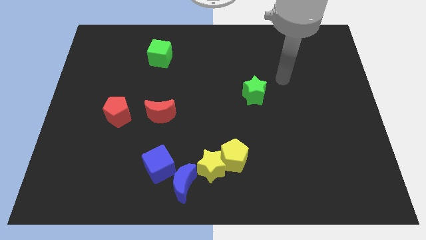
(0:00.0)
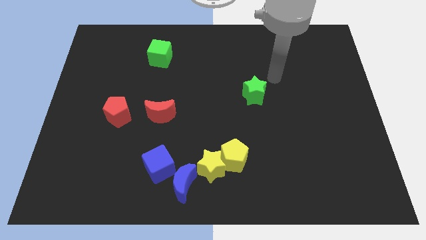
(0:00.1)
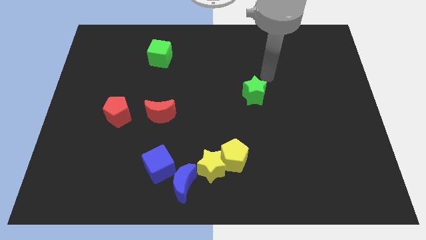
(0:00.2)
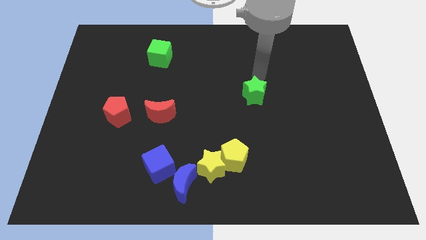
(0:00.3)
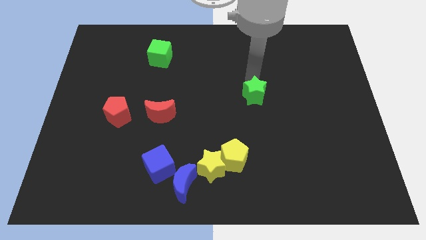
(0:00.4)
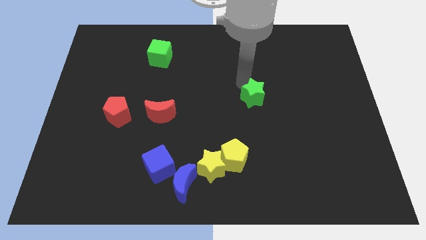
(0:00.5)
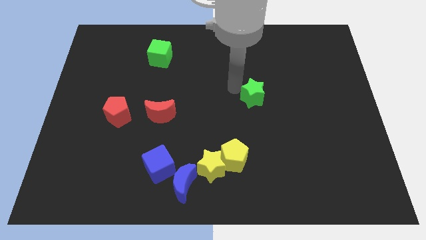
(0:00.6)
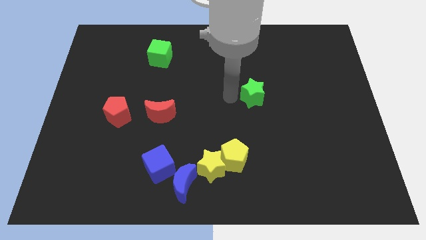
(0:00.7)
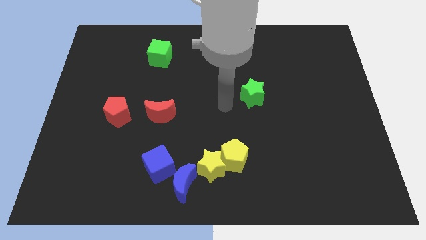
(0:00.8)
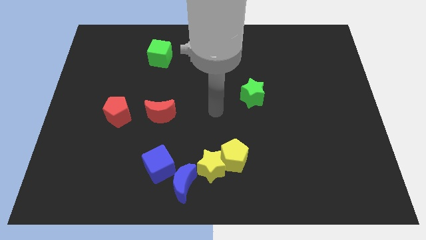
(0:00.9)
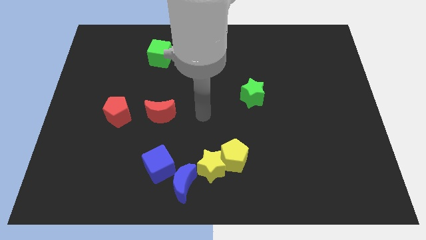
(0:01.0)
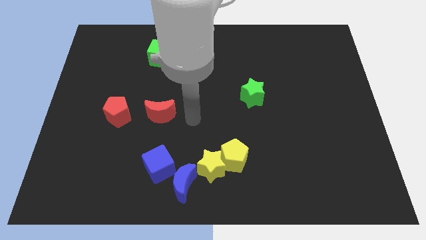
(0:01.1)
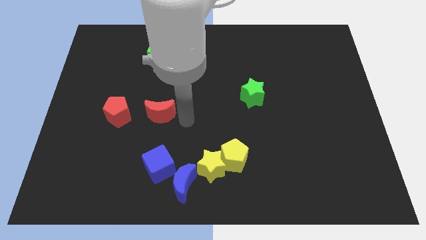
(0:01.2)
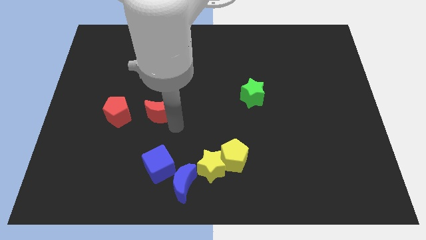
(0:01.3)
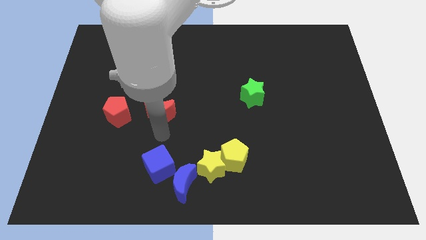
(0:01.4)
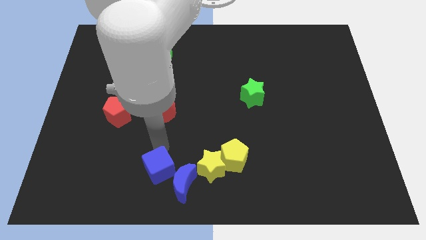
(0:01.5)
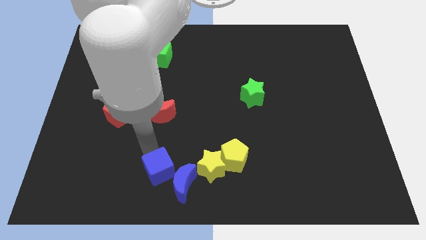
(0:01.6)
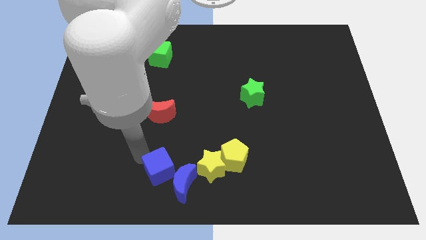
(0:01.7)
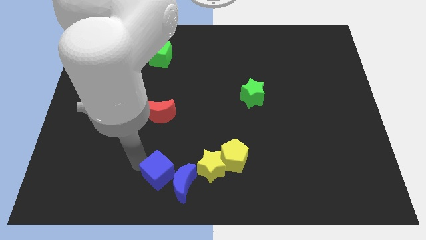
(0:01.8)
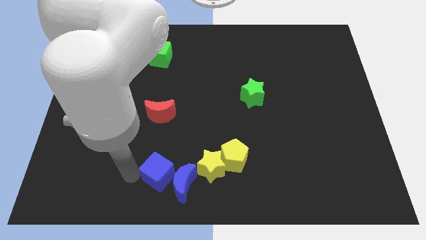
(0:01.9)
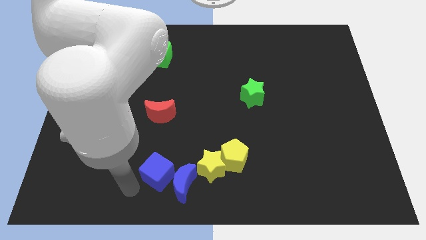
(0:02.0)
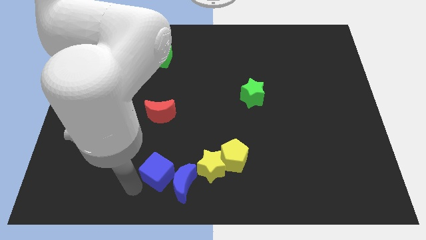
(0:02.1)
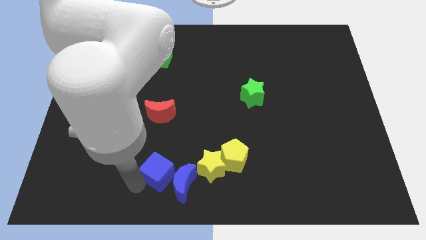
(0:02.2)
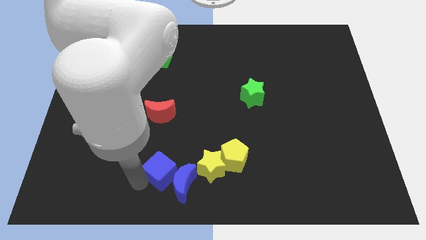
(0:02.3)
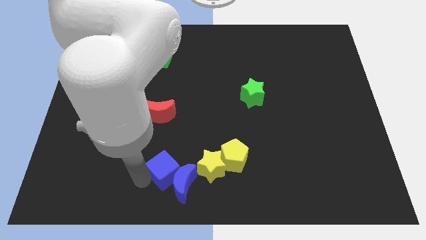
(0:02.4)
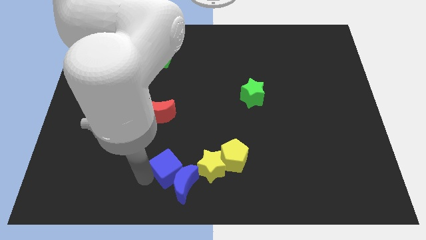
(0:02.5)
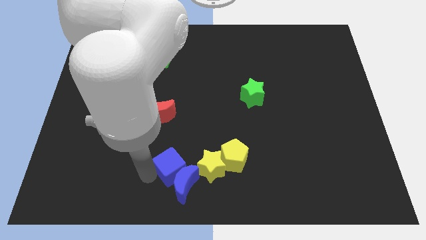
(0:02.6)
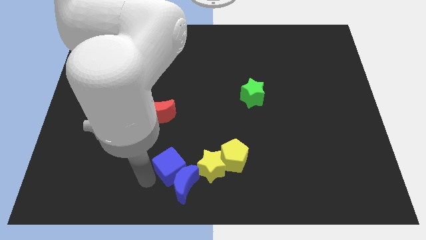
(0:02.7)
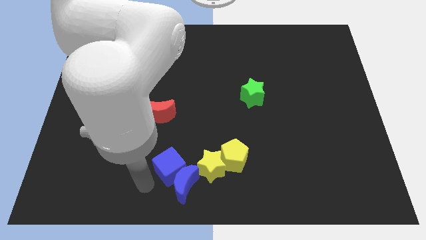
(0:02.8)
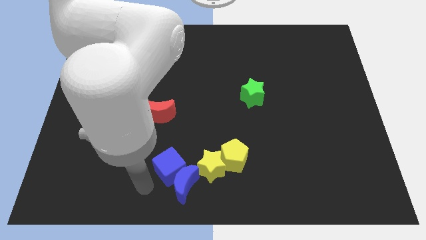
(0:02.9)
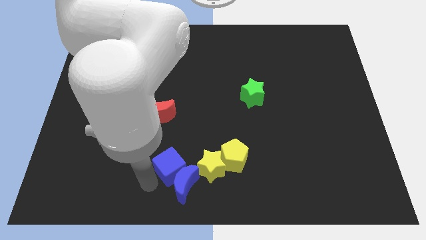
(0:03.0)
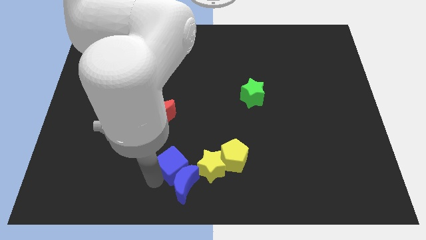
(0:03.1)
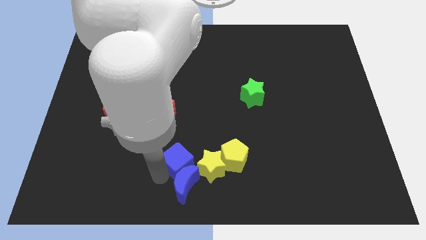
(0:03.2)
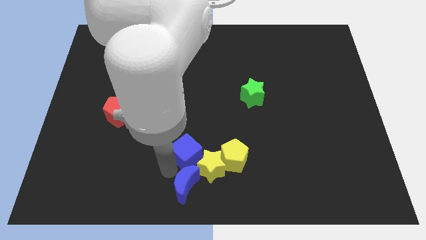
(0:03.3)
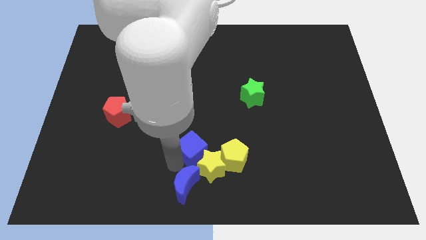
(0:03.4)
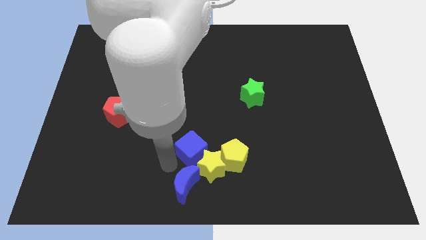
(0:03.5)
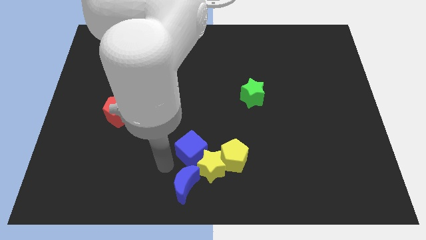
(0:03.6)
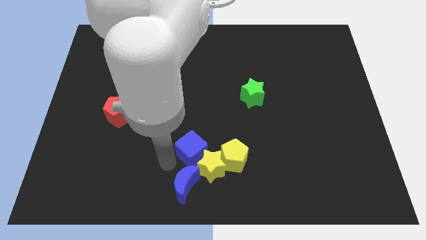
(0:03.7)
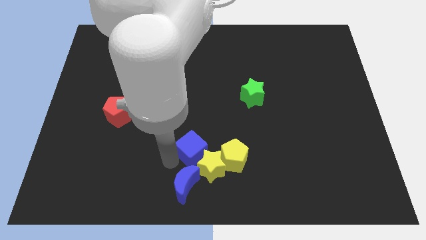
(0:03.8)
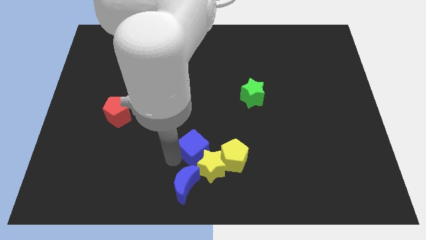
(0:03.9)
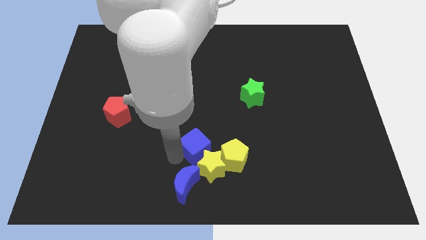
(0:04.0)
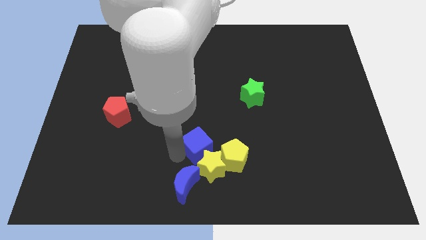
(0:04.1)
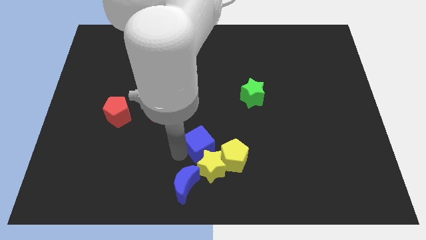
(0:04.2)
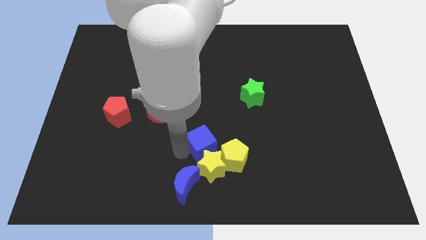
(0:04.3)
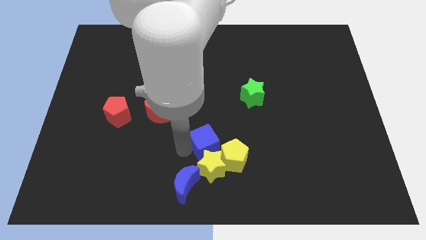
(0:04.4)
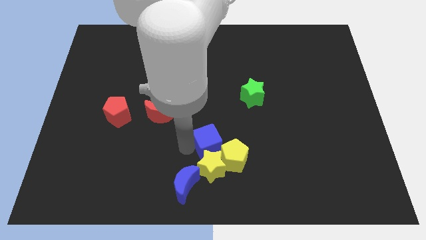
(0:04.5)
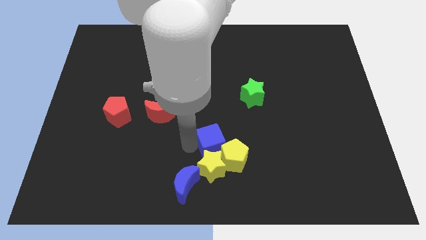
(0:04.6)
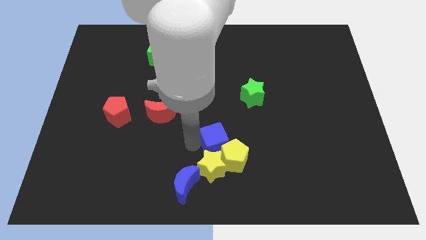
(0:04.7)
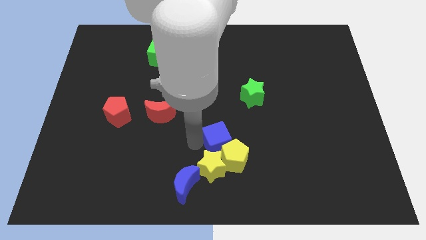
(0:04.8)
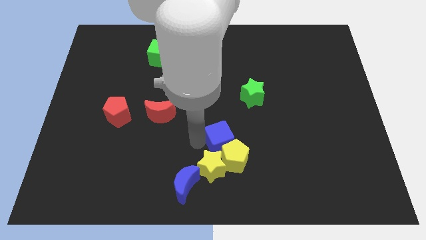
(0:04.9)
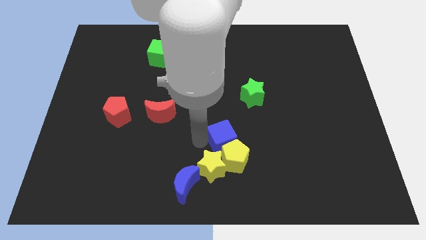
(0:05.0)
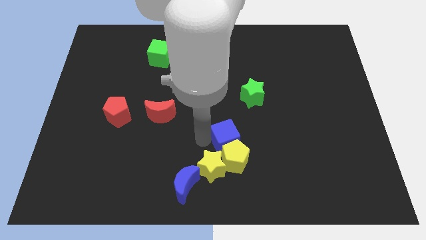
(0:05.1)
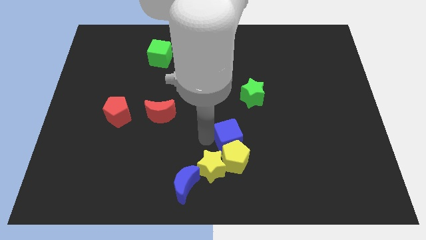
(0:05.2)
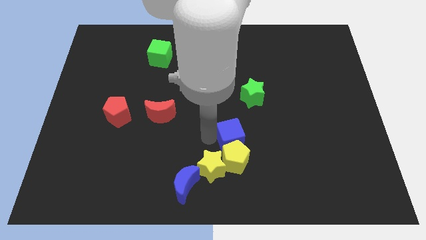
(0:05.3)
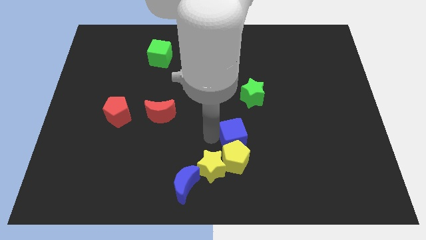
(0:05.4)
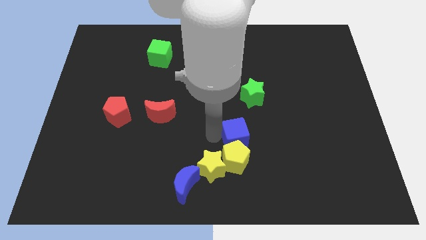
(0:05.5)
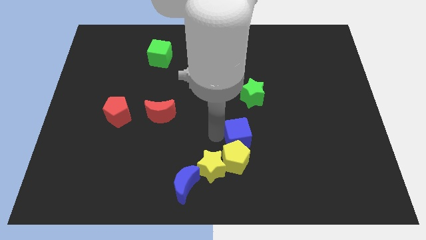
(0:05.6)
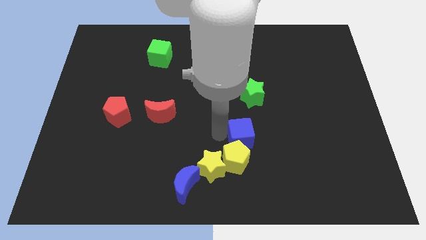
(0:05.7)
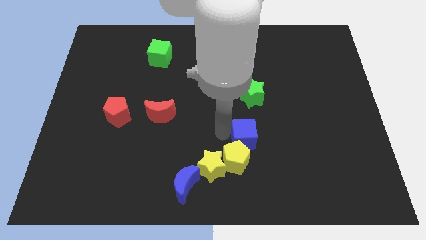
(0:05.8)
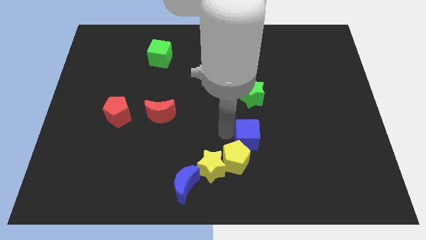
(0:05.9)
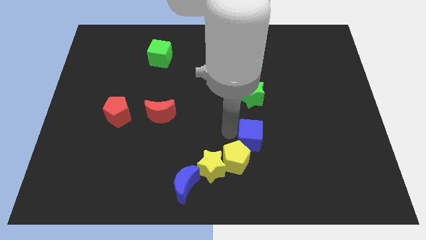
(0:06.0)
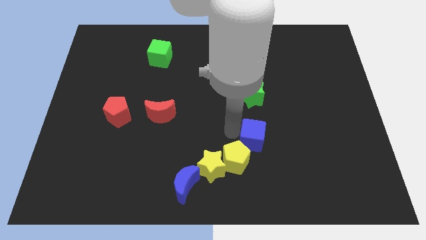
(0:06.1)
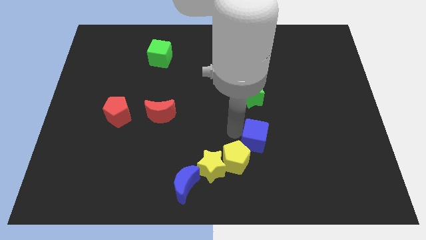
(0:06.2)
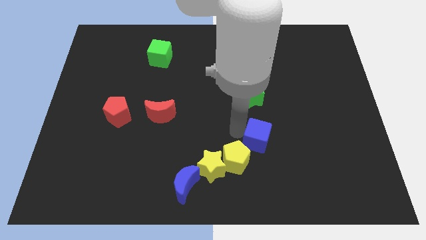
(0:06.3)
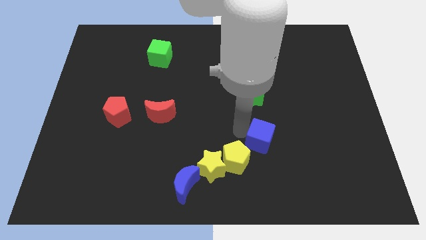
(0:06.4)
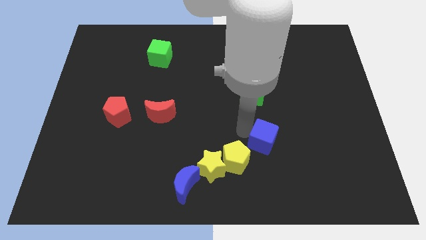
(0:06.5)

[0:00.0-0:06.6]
move the blue cube to the right

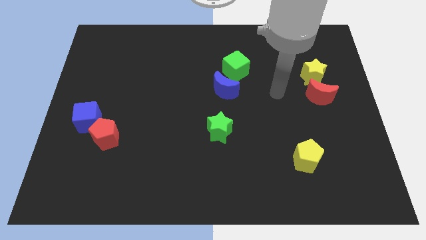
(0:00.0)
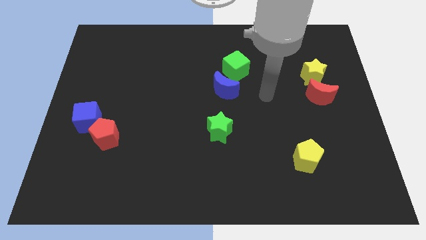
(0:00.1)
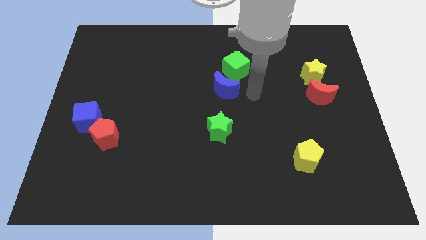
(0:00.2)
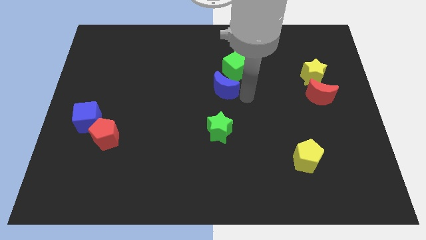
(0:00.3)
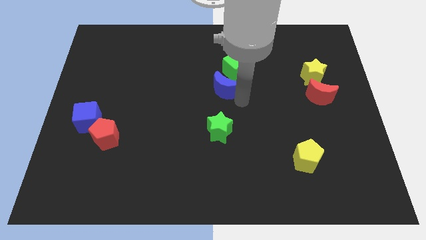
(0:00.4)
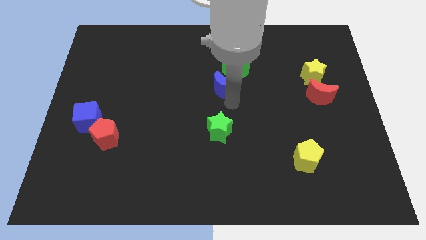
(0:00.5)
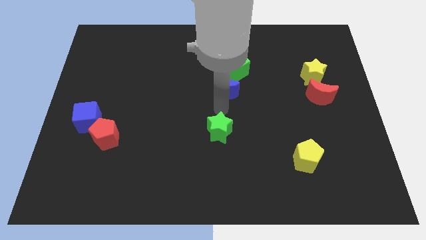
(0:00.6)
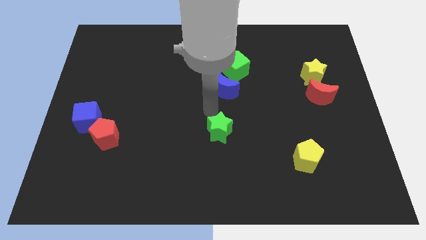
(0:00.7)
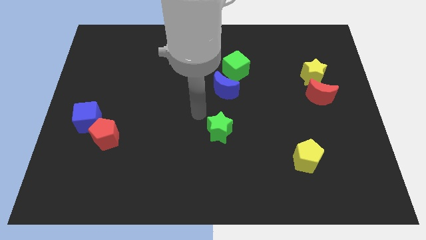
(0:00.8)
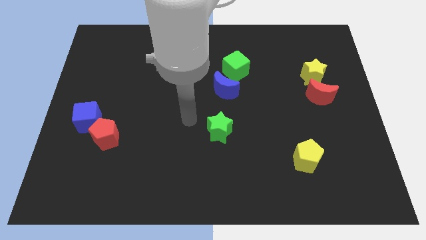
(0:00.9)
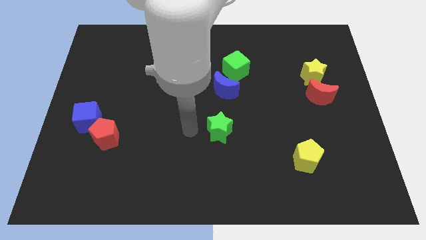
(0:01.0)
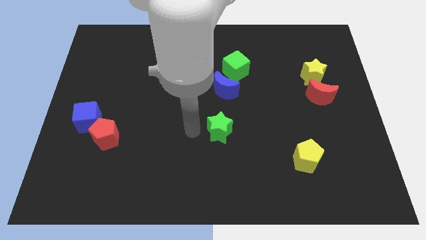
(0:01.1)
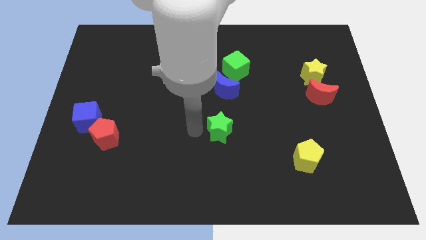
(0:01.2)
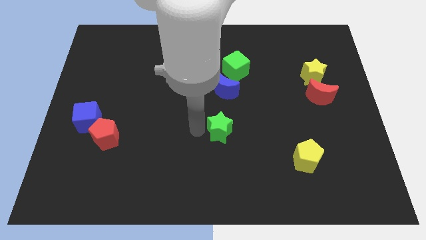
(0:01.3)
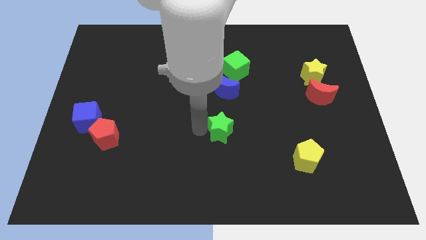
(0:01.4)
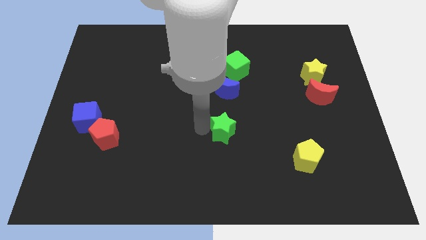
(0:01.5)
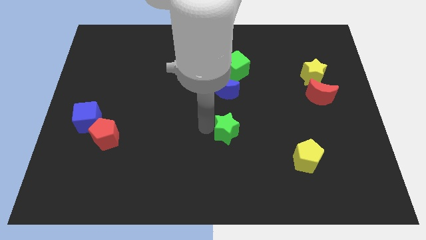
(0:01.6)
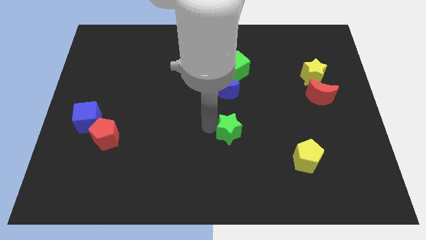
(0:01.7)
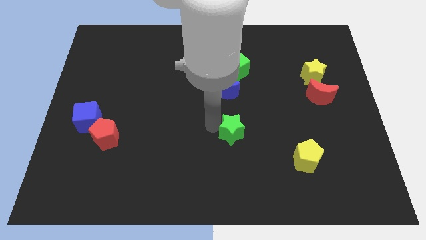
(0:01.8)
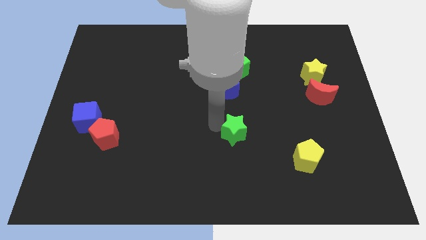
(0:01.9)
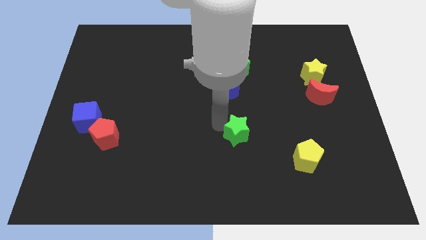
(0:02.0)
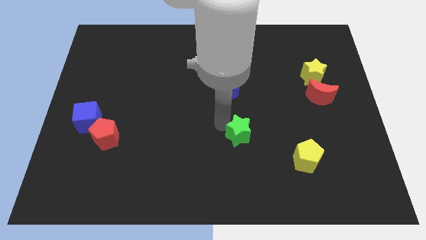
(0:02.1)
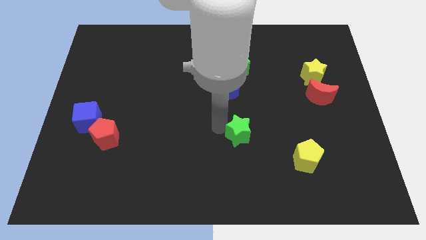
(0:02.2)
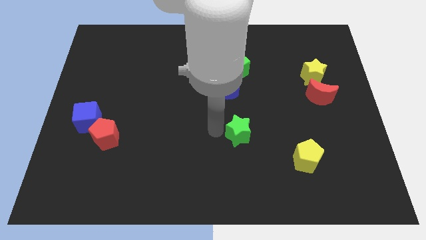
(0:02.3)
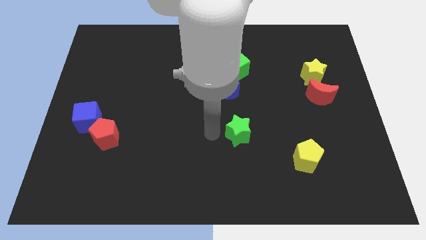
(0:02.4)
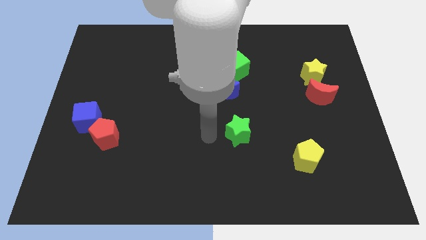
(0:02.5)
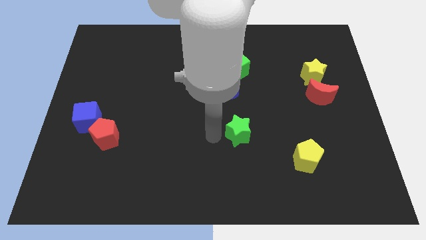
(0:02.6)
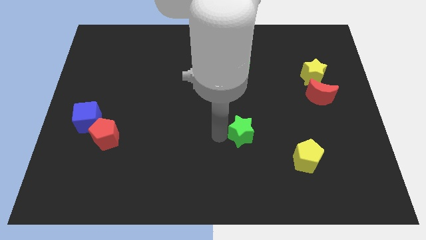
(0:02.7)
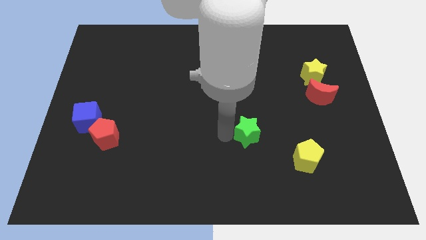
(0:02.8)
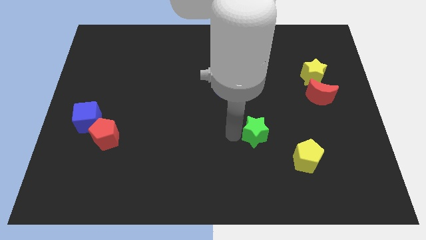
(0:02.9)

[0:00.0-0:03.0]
move the green star a little bit to the right
